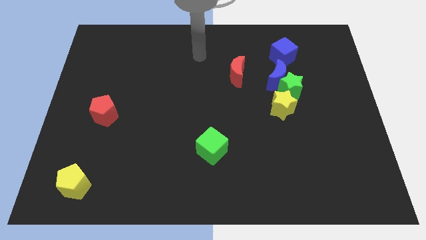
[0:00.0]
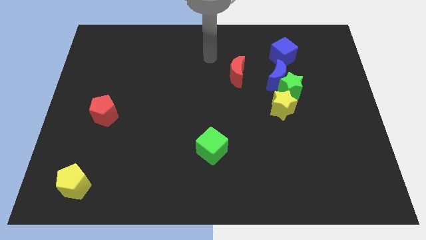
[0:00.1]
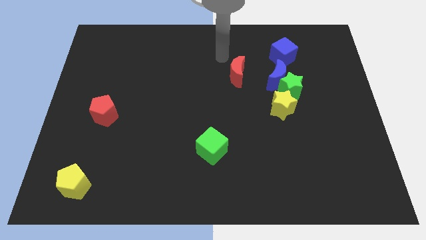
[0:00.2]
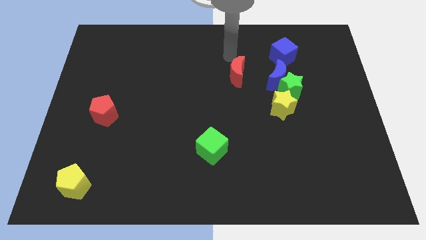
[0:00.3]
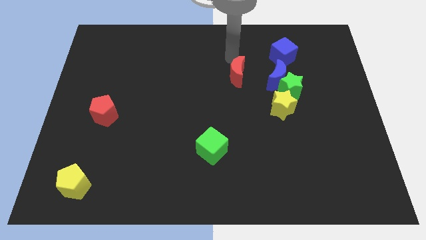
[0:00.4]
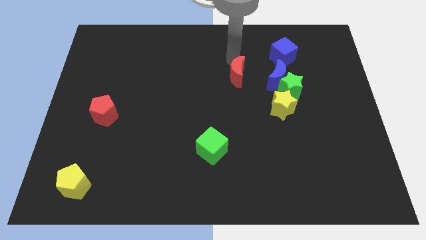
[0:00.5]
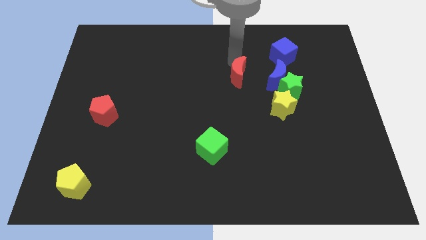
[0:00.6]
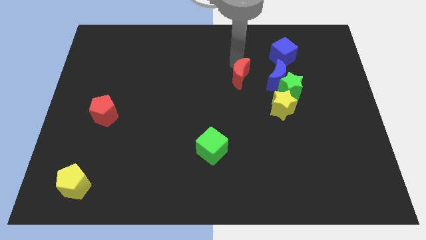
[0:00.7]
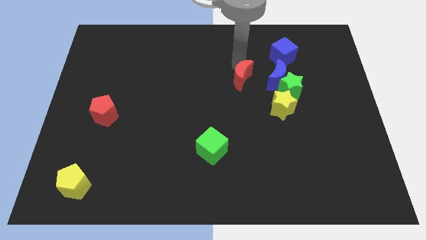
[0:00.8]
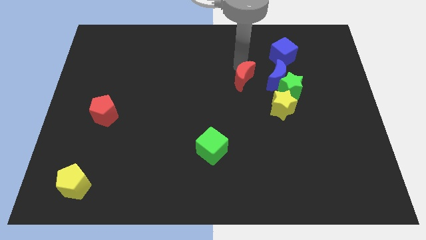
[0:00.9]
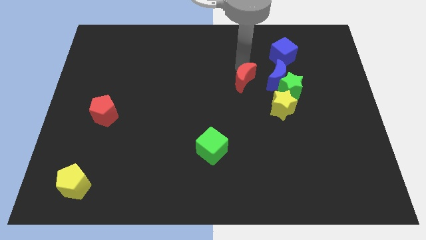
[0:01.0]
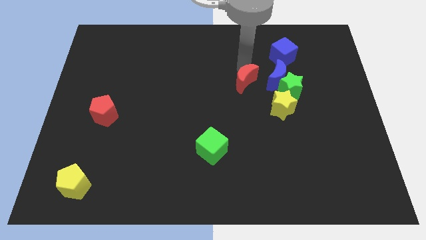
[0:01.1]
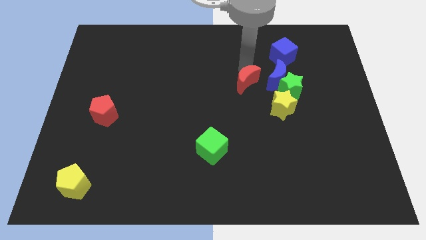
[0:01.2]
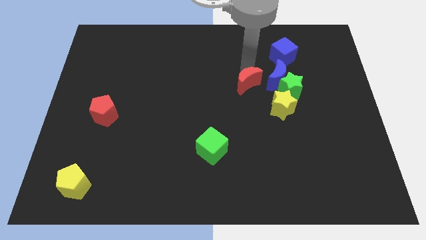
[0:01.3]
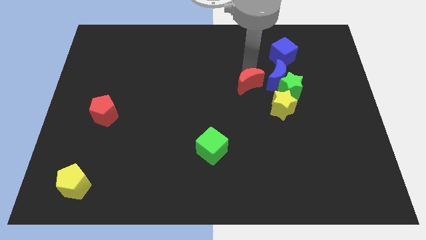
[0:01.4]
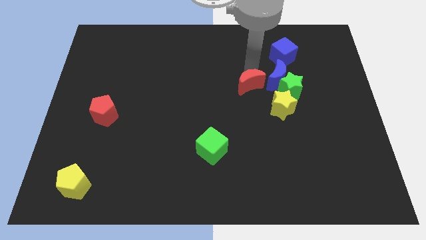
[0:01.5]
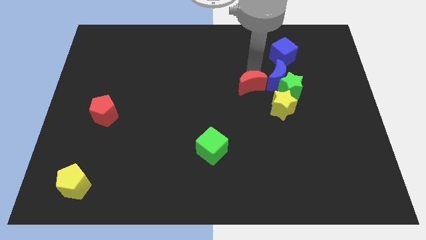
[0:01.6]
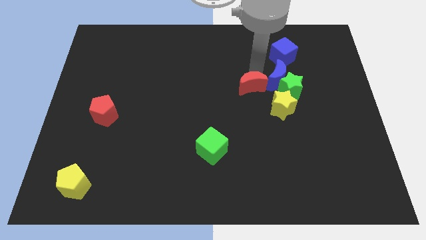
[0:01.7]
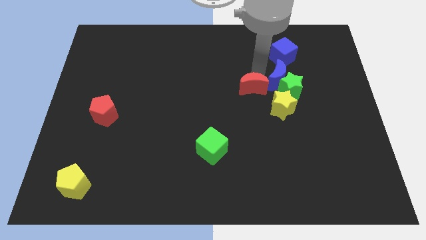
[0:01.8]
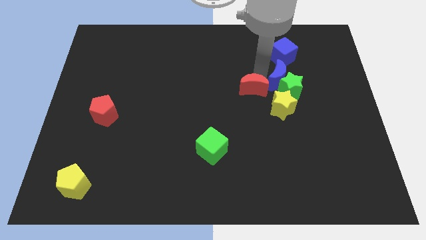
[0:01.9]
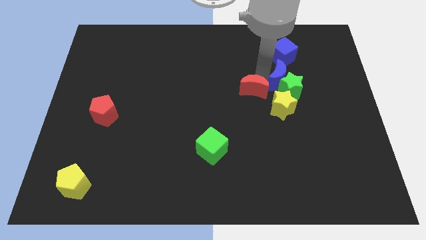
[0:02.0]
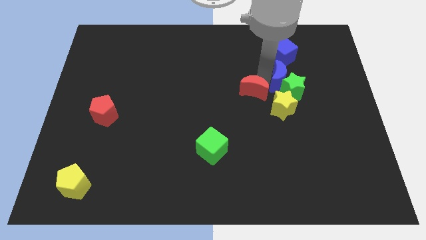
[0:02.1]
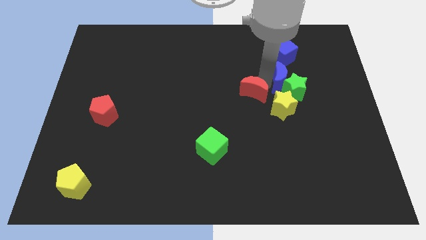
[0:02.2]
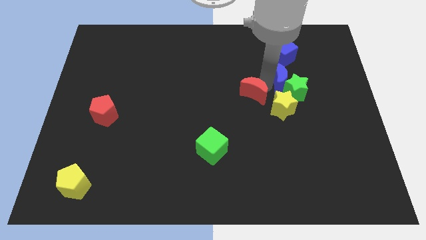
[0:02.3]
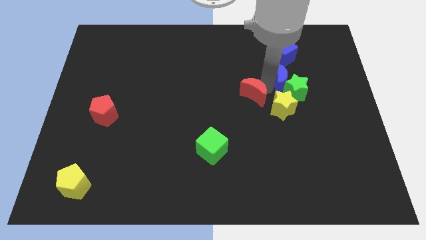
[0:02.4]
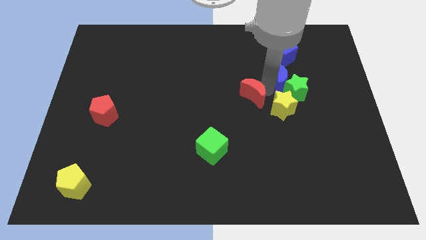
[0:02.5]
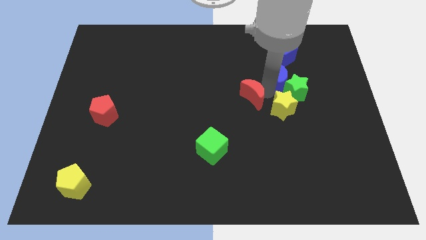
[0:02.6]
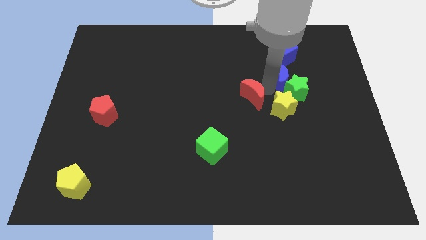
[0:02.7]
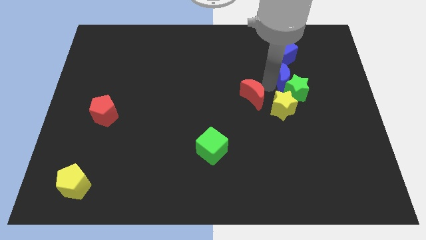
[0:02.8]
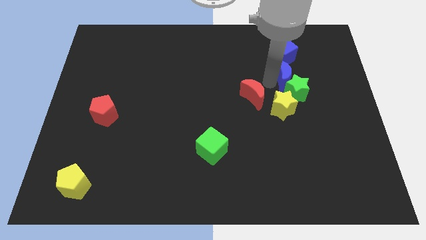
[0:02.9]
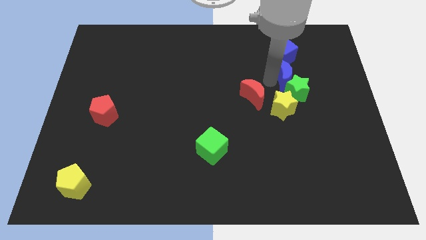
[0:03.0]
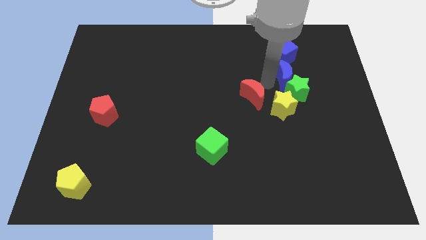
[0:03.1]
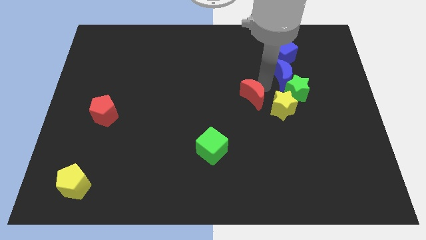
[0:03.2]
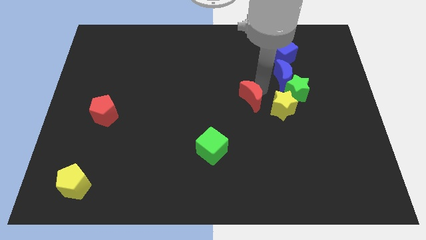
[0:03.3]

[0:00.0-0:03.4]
slightly slide the red moon down

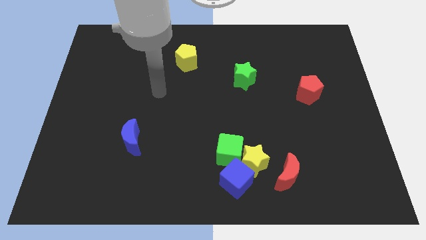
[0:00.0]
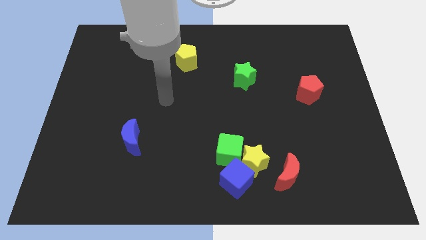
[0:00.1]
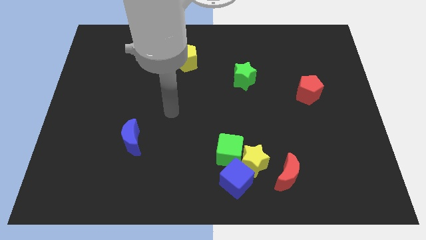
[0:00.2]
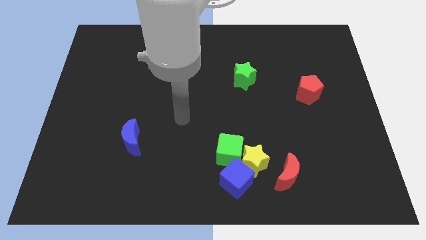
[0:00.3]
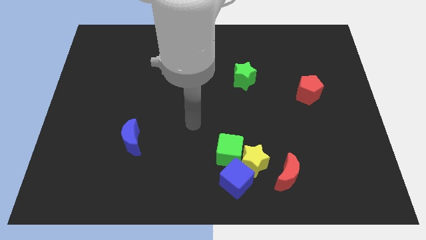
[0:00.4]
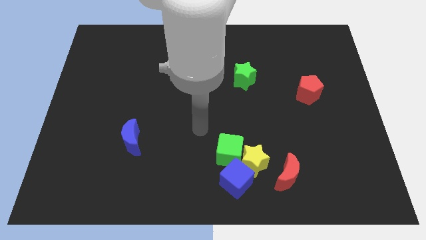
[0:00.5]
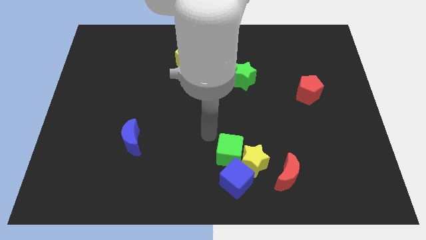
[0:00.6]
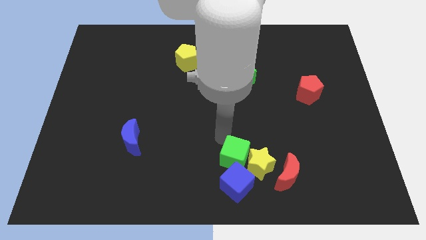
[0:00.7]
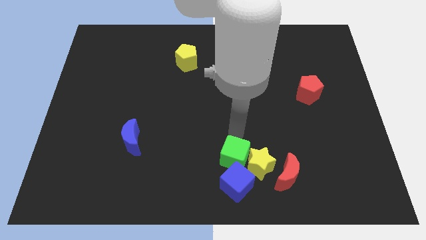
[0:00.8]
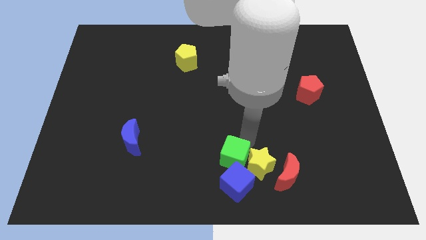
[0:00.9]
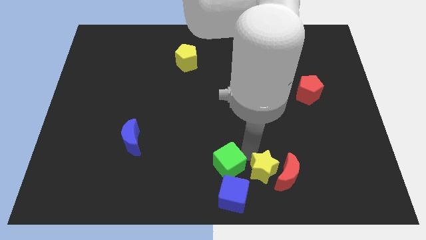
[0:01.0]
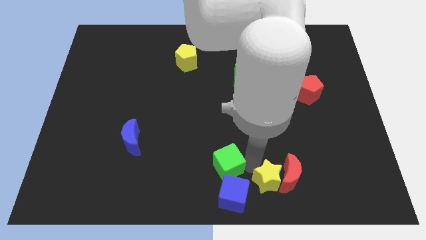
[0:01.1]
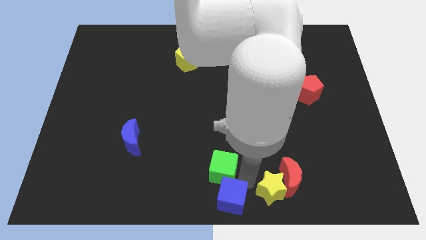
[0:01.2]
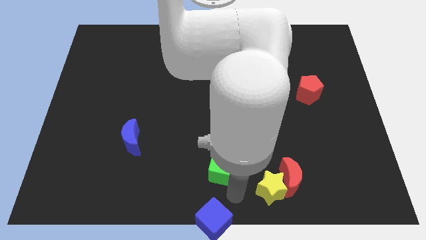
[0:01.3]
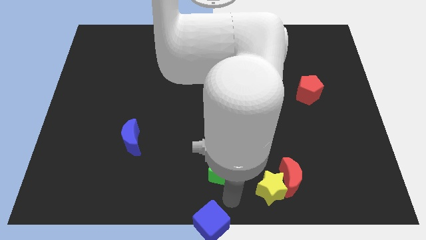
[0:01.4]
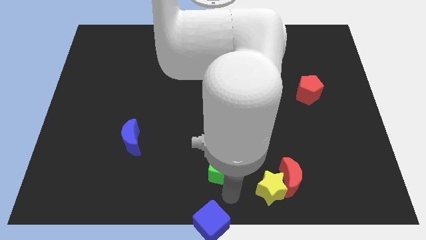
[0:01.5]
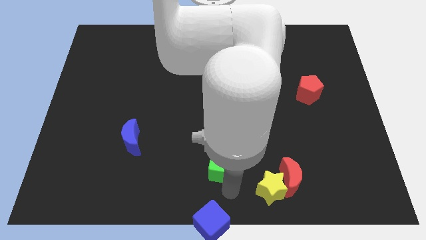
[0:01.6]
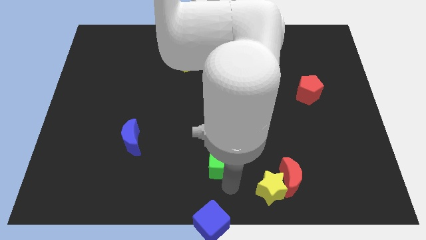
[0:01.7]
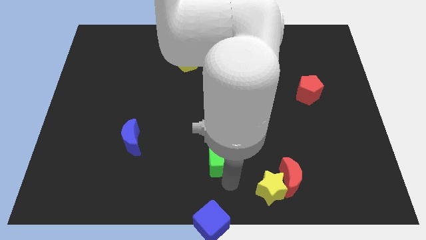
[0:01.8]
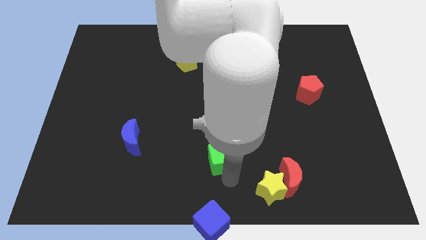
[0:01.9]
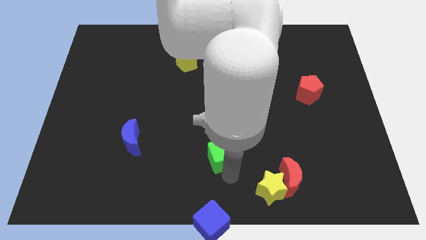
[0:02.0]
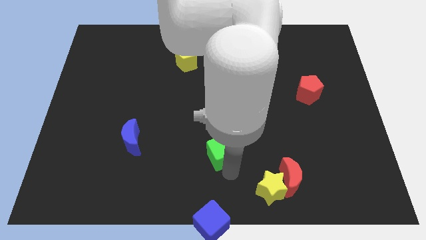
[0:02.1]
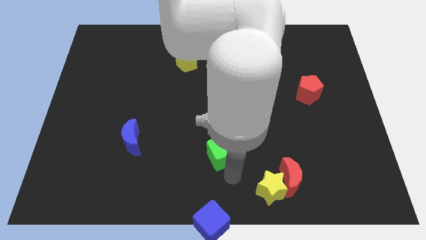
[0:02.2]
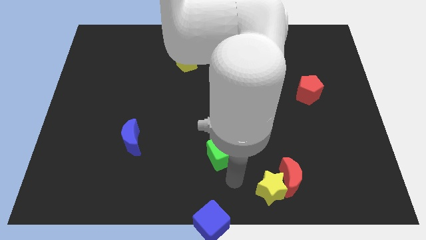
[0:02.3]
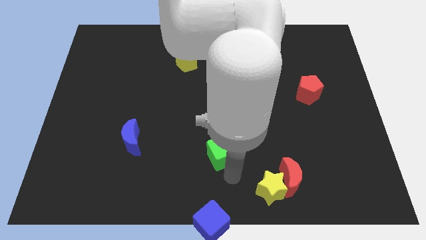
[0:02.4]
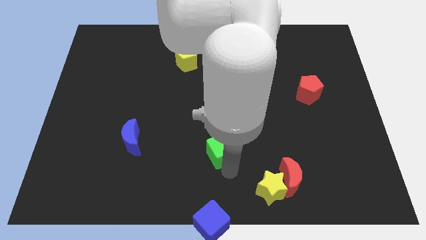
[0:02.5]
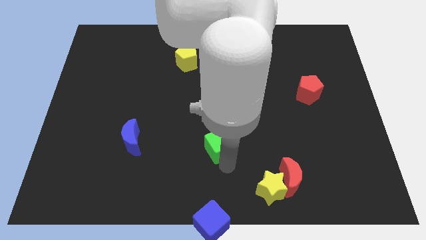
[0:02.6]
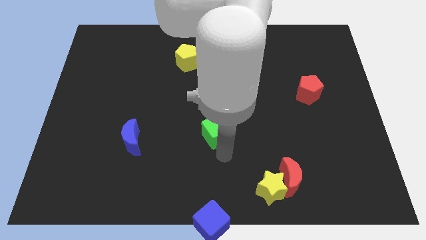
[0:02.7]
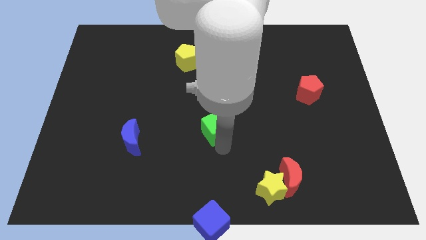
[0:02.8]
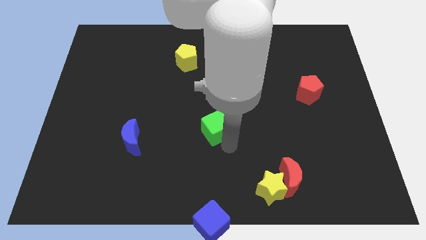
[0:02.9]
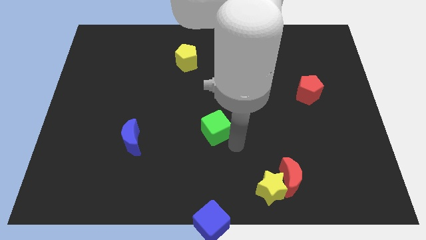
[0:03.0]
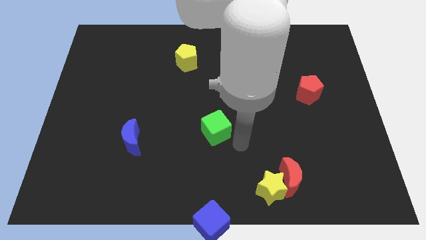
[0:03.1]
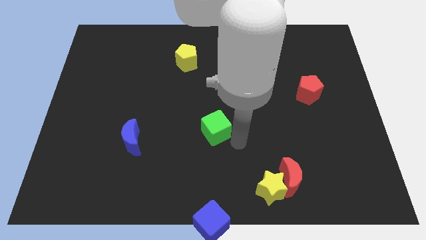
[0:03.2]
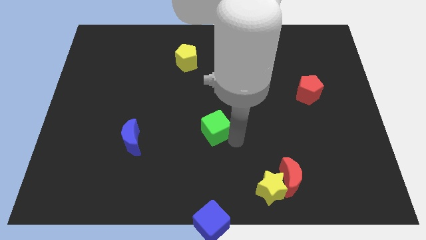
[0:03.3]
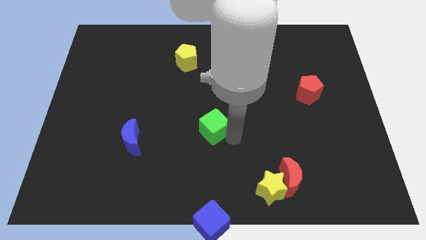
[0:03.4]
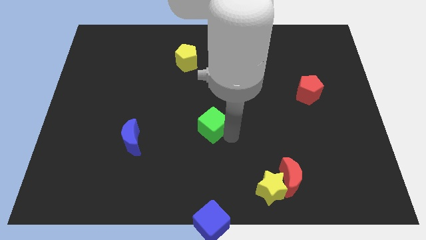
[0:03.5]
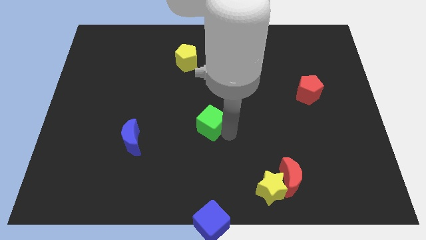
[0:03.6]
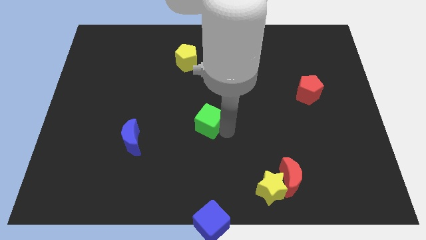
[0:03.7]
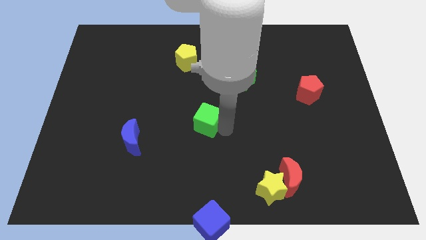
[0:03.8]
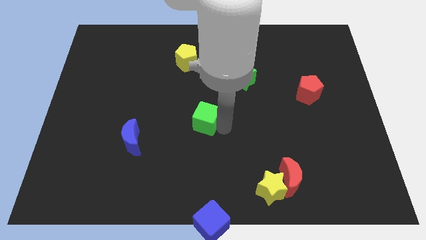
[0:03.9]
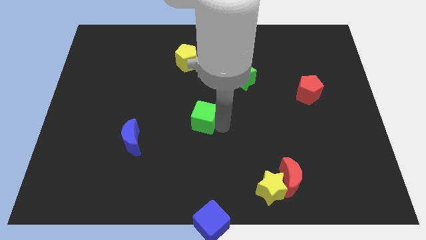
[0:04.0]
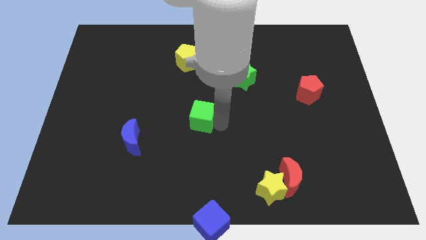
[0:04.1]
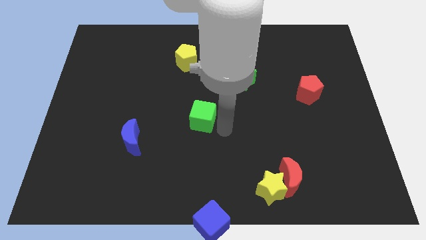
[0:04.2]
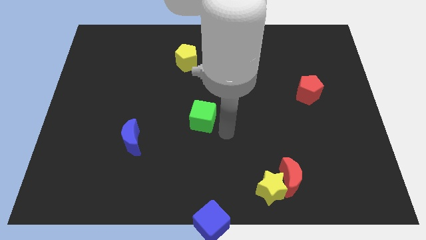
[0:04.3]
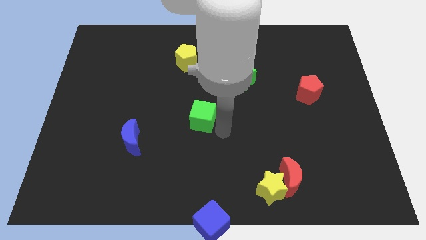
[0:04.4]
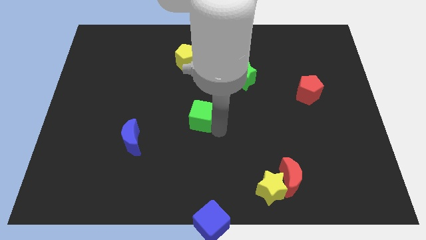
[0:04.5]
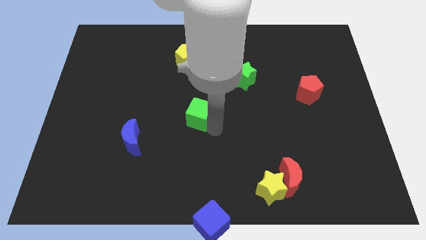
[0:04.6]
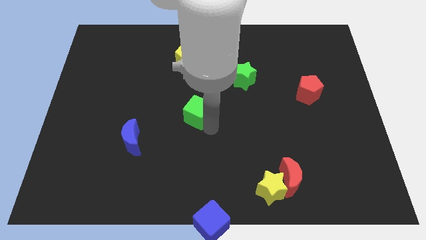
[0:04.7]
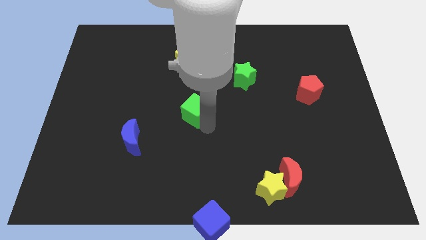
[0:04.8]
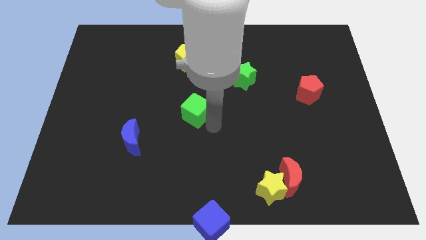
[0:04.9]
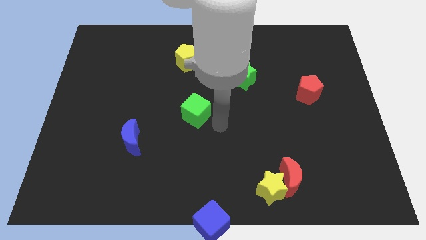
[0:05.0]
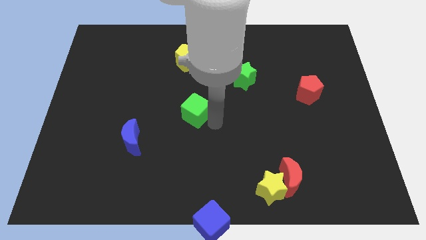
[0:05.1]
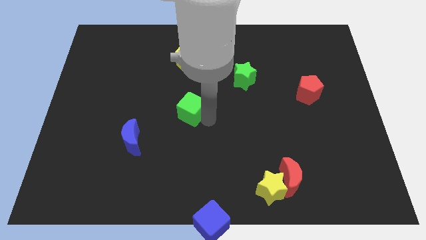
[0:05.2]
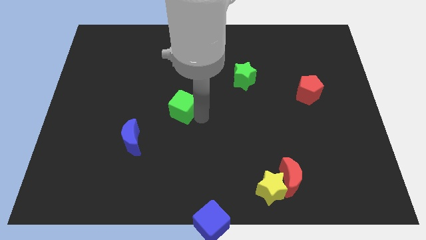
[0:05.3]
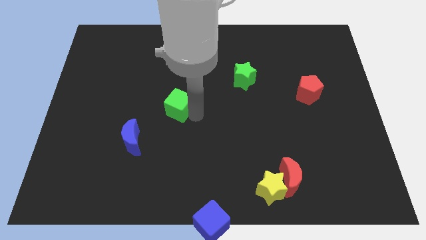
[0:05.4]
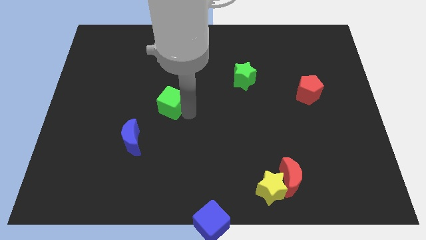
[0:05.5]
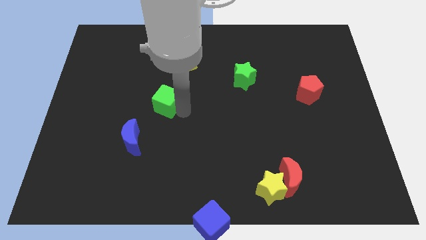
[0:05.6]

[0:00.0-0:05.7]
push the green cube upwards and to the left
